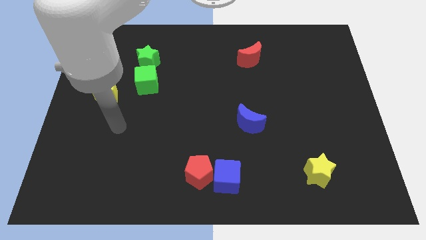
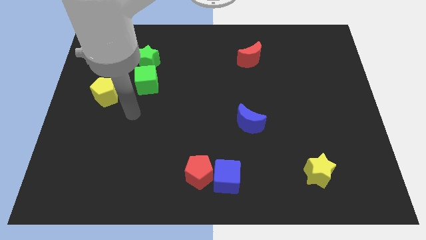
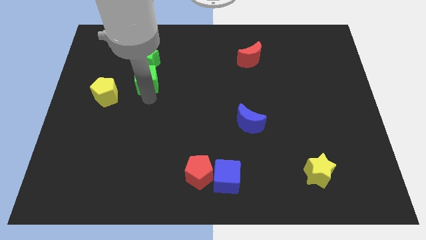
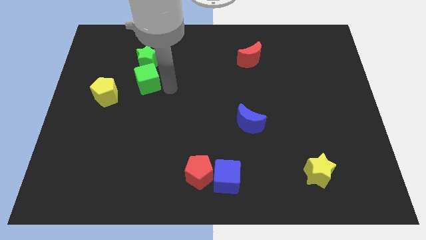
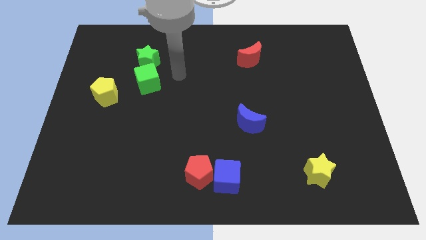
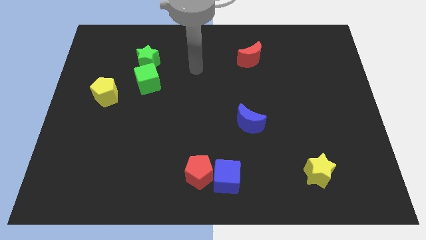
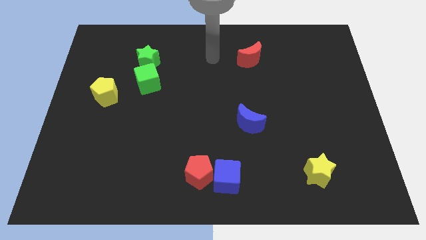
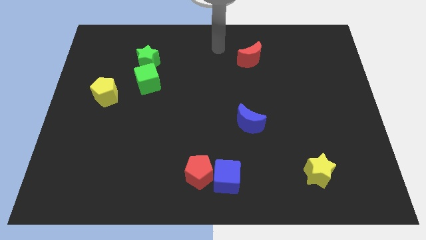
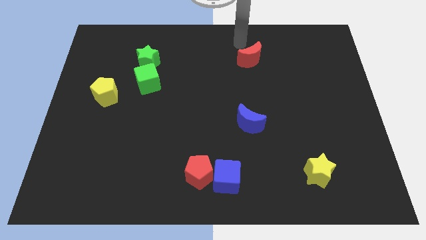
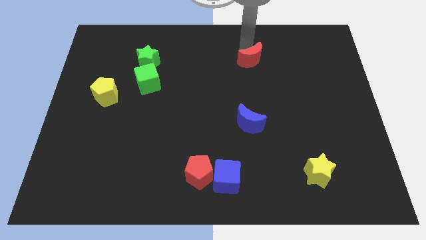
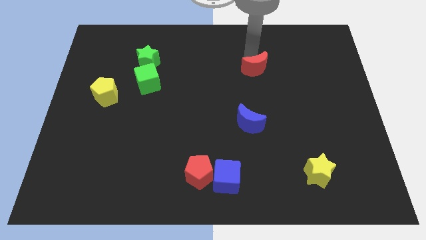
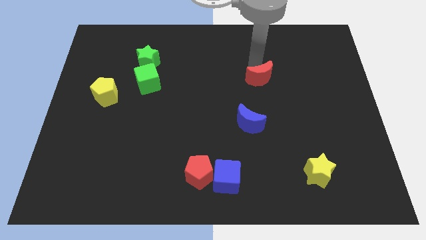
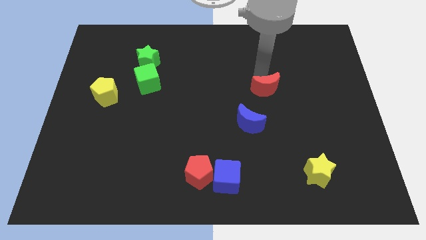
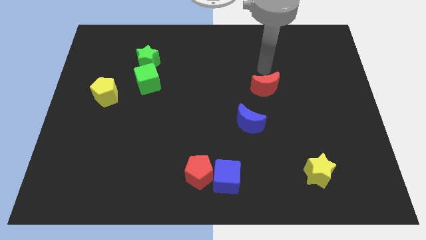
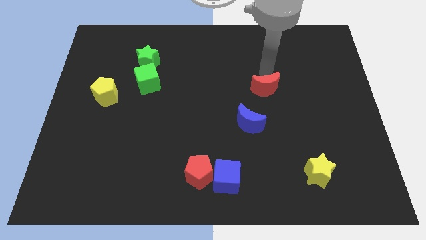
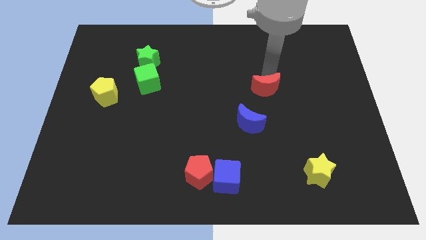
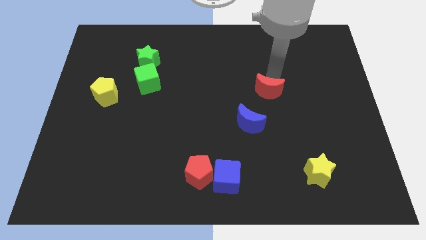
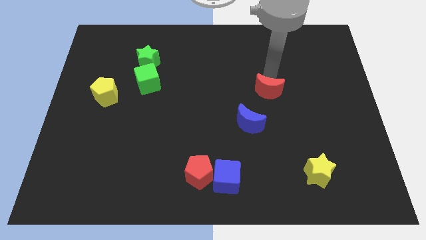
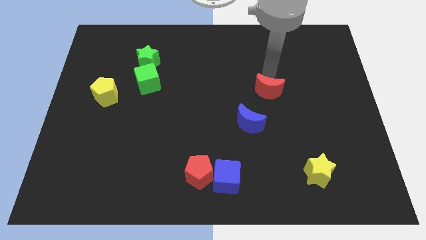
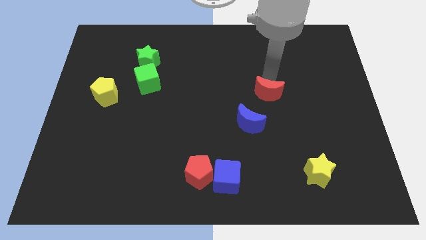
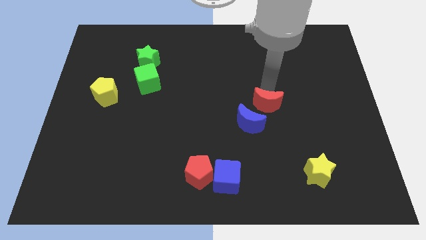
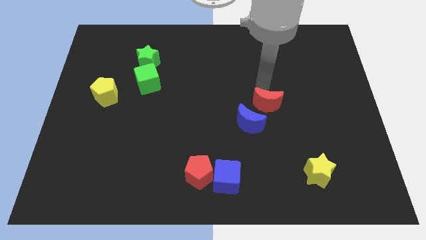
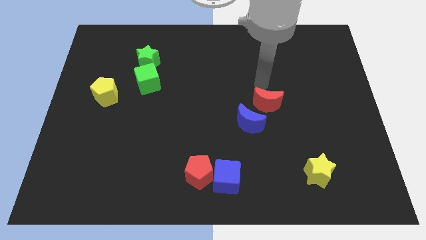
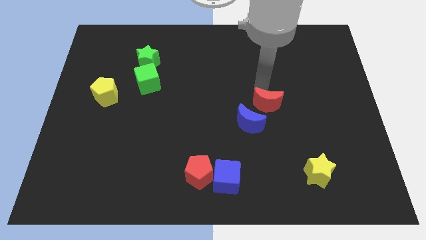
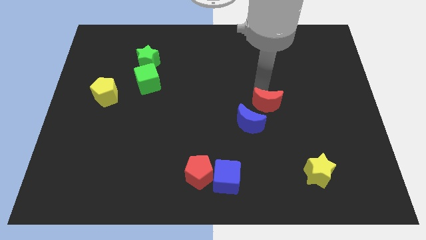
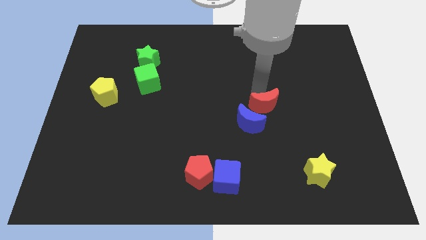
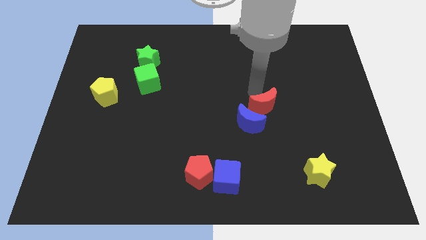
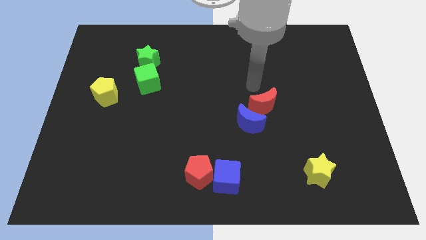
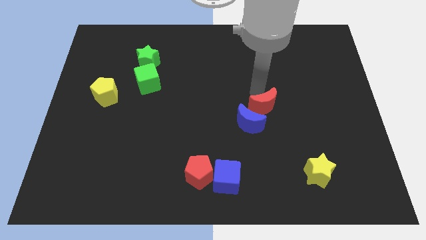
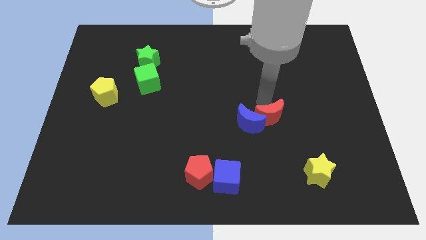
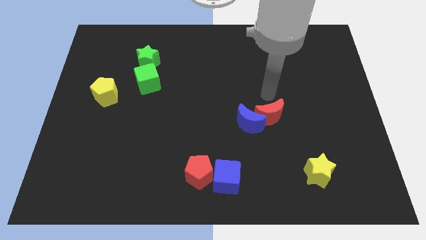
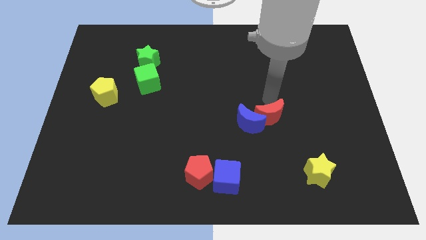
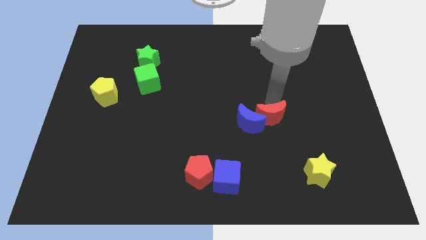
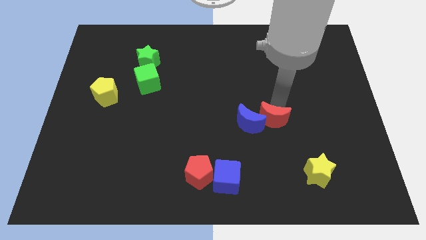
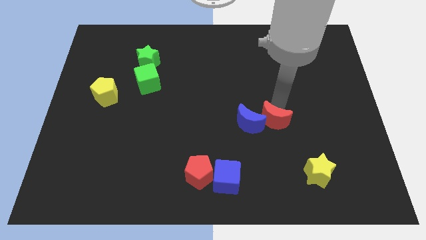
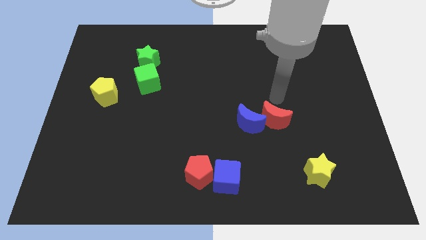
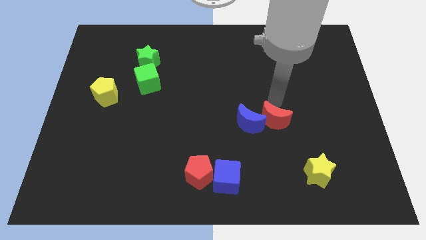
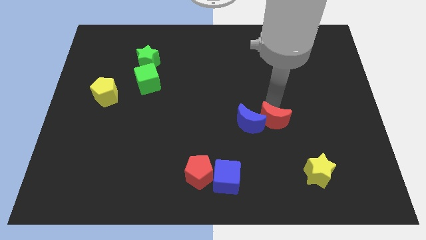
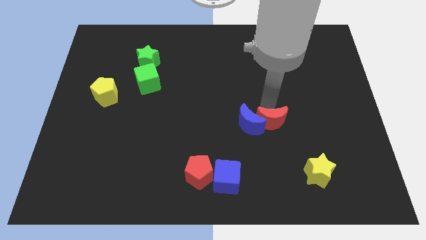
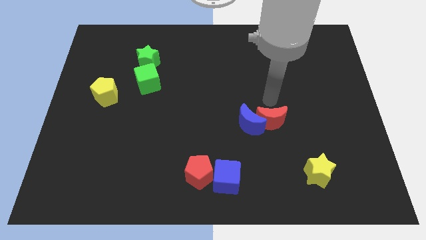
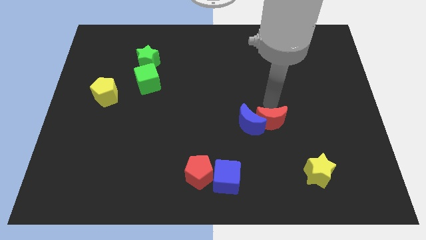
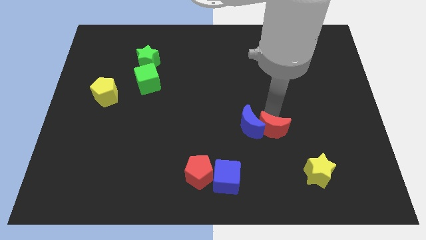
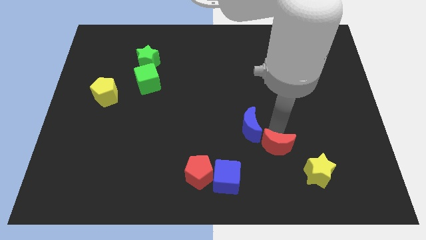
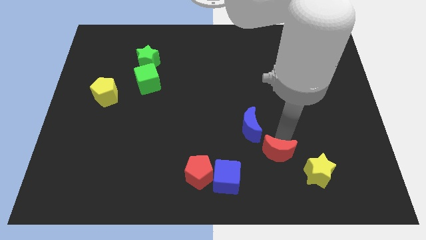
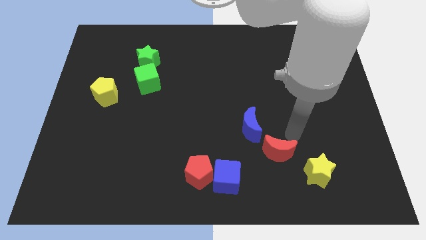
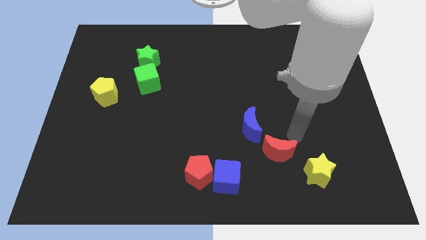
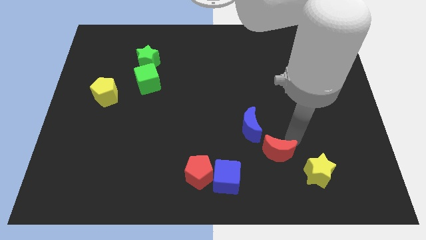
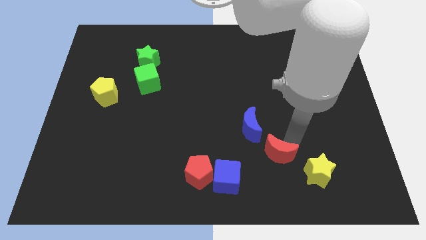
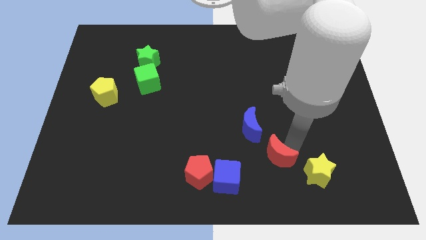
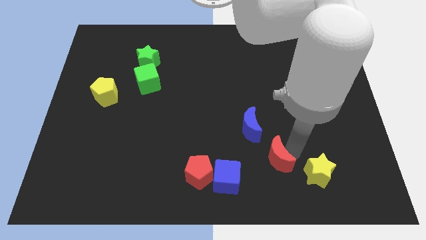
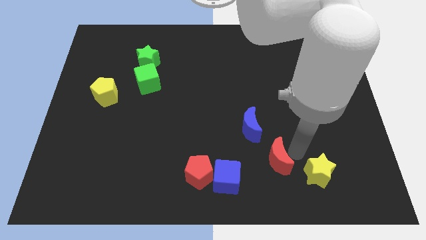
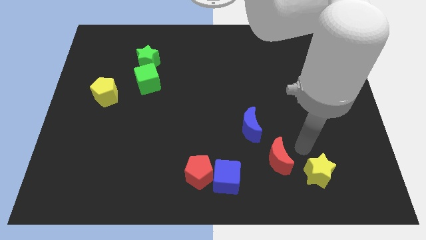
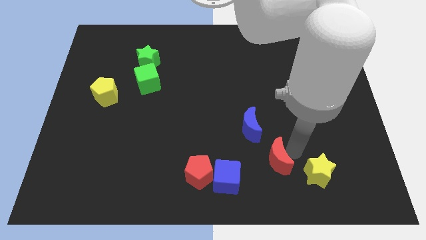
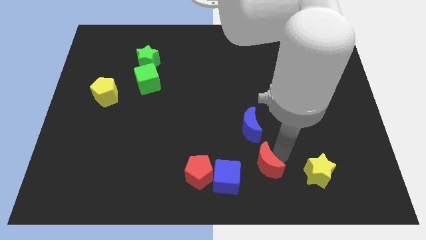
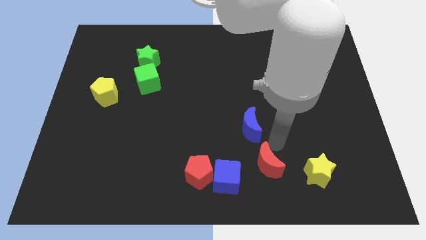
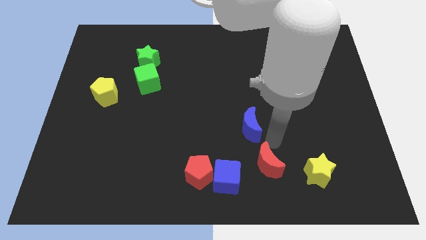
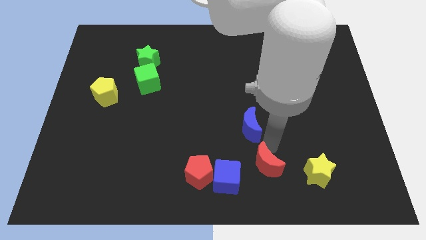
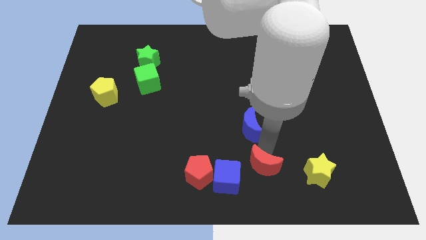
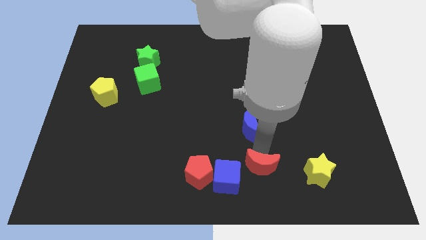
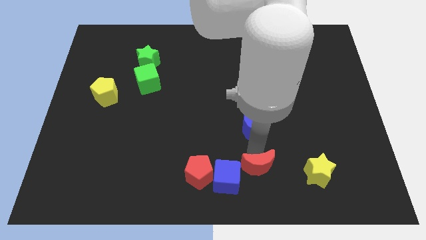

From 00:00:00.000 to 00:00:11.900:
push the red moon to the bottom side

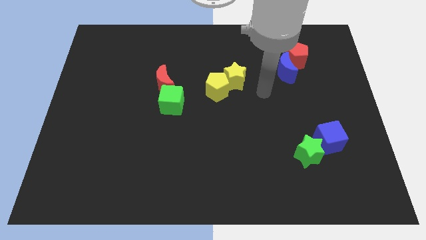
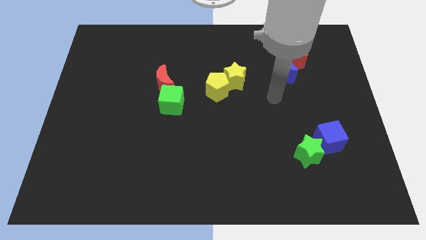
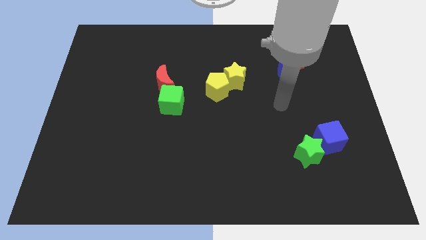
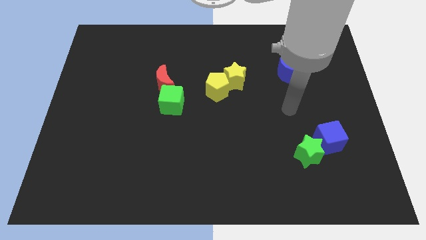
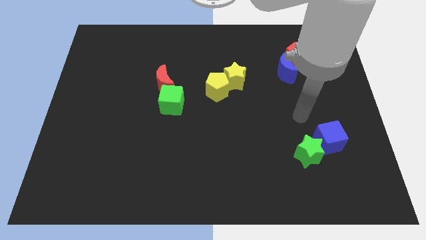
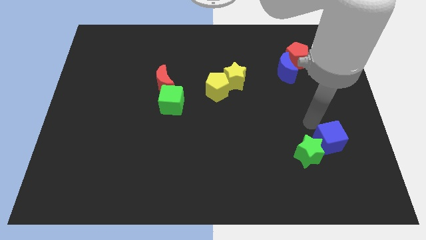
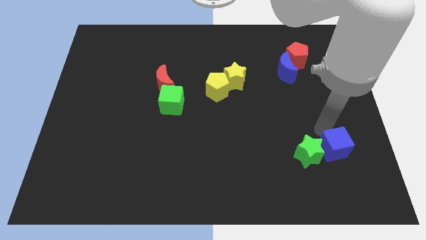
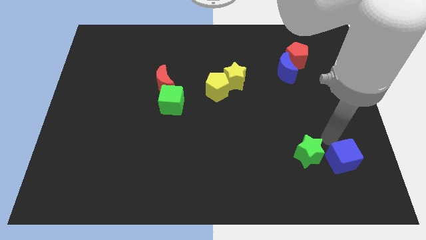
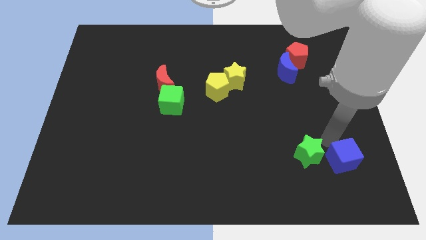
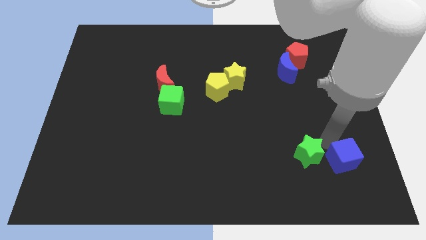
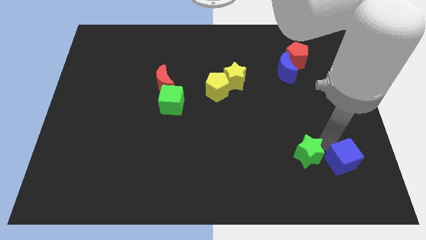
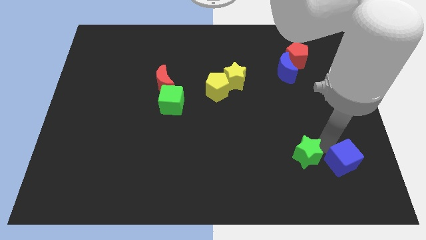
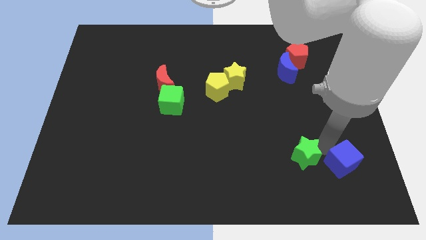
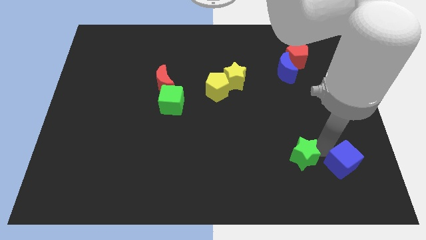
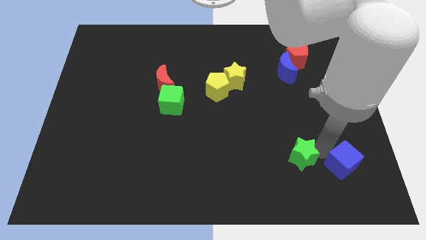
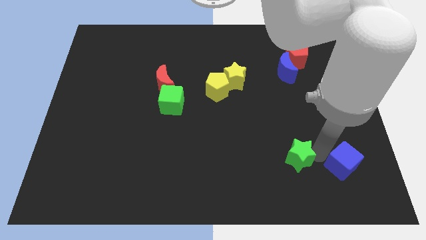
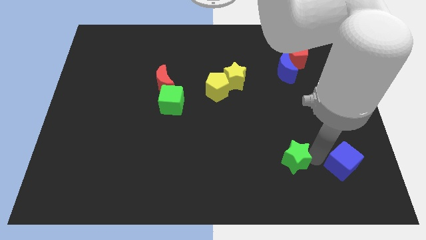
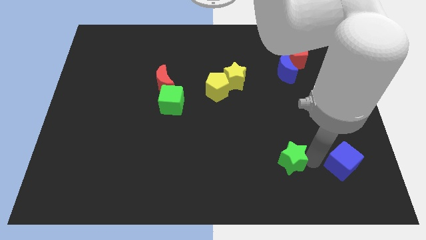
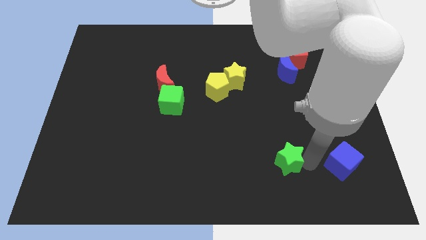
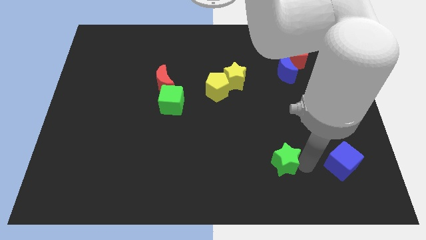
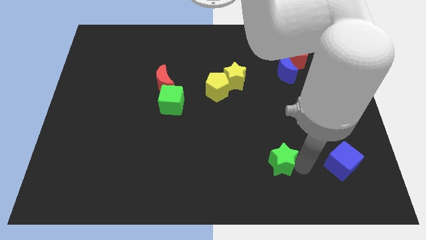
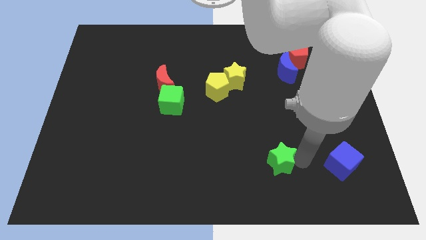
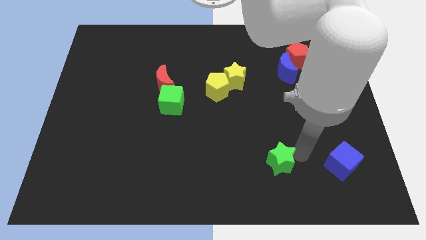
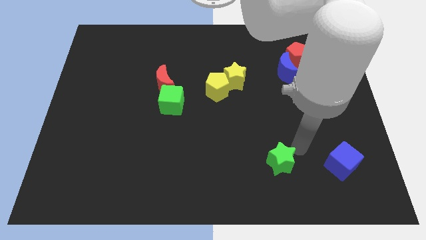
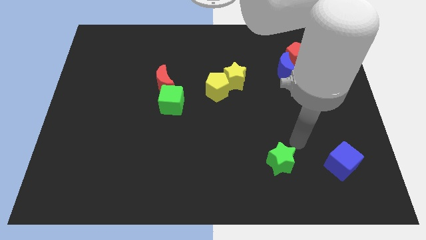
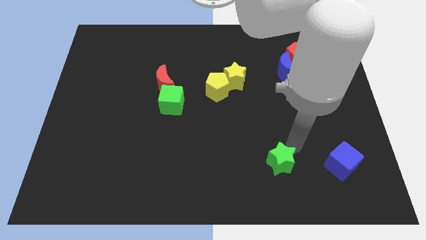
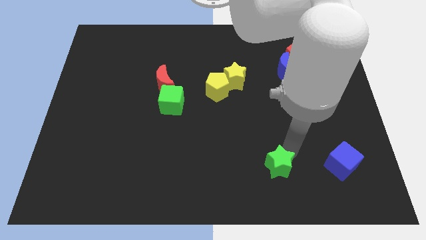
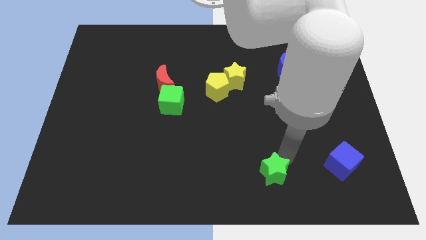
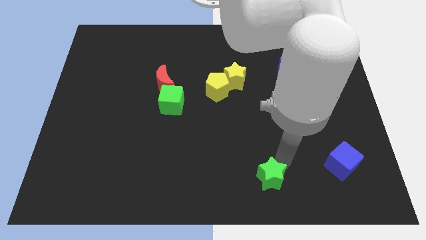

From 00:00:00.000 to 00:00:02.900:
slide the green star to the bottom
